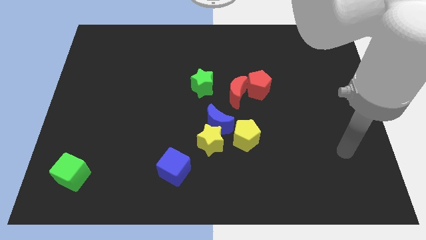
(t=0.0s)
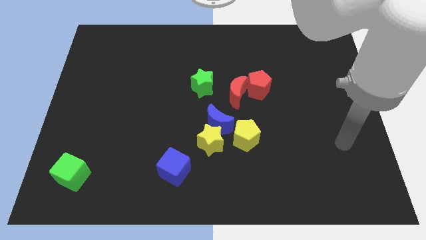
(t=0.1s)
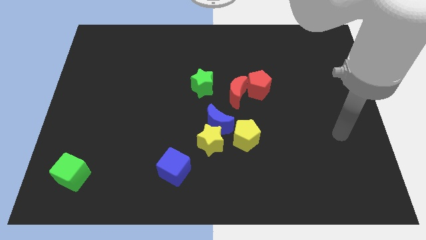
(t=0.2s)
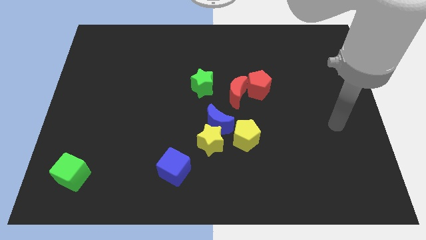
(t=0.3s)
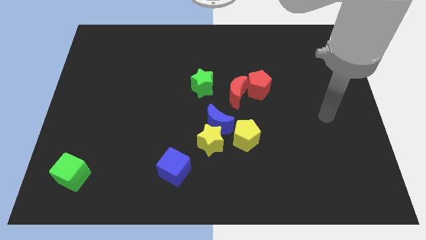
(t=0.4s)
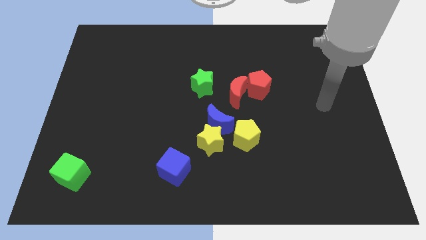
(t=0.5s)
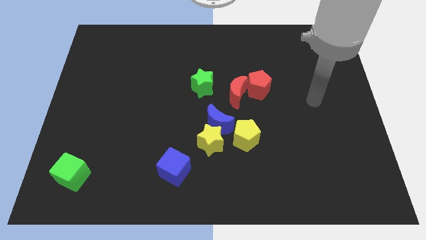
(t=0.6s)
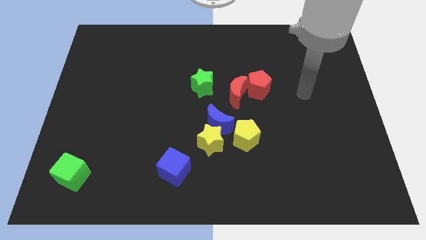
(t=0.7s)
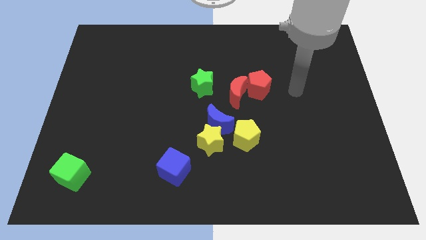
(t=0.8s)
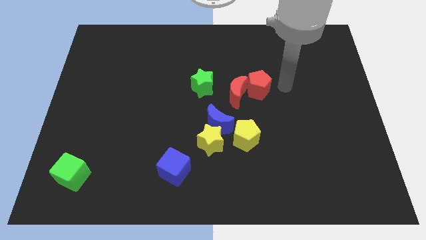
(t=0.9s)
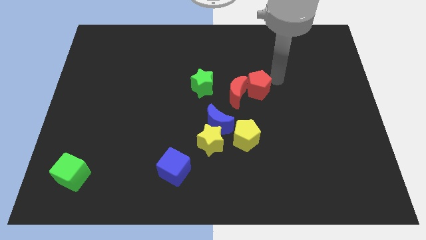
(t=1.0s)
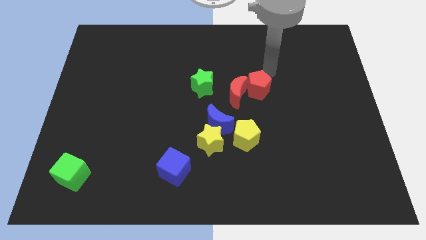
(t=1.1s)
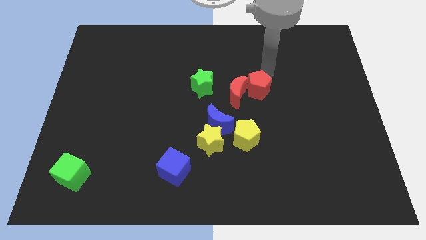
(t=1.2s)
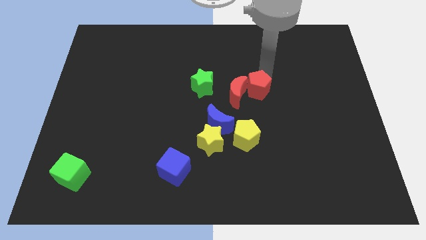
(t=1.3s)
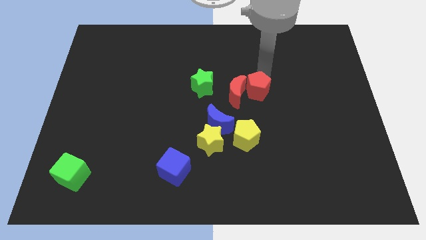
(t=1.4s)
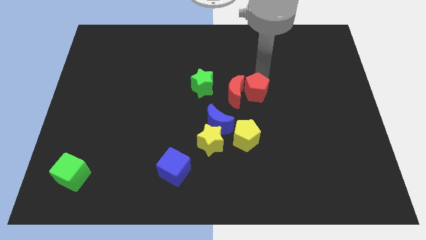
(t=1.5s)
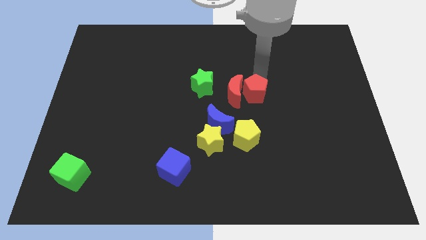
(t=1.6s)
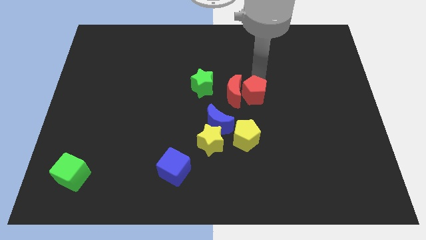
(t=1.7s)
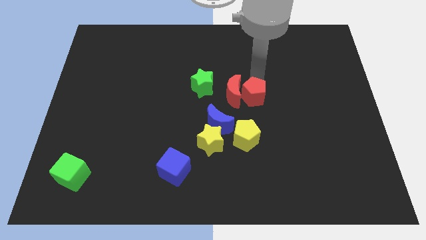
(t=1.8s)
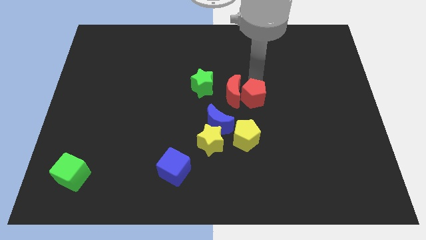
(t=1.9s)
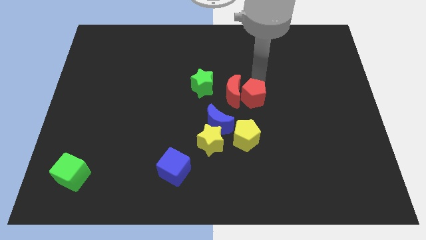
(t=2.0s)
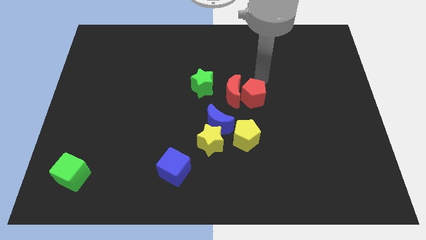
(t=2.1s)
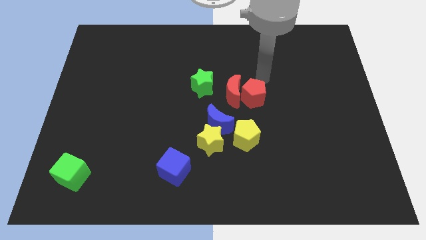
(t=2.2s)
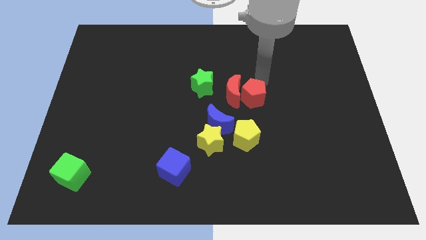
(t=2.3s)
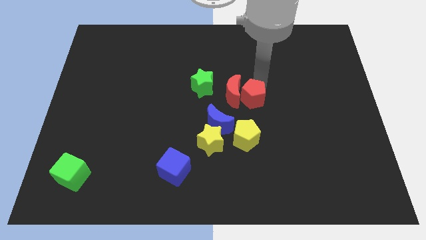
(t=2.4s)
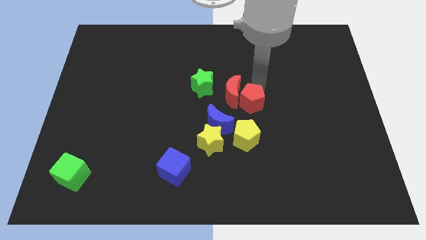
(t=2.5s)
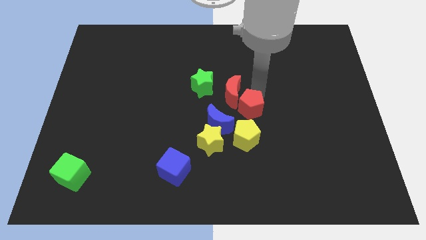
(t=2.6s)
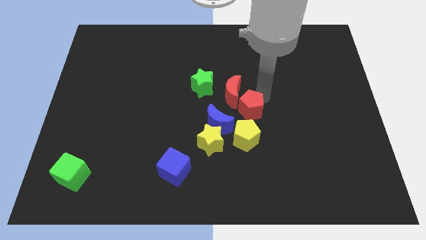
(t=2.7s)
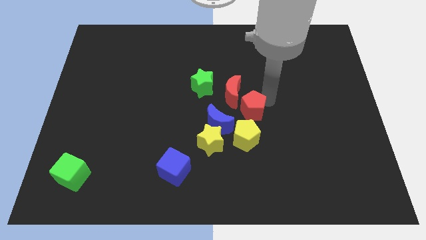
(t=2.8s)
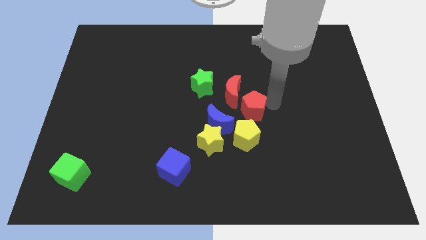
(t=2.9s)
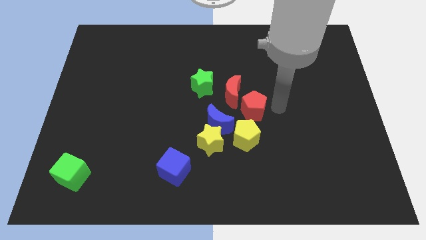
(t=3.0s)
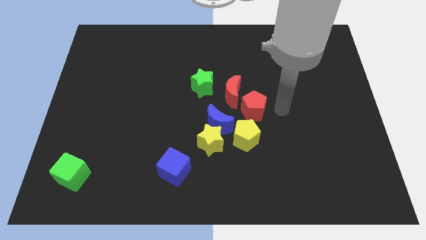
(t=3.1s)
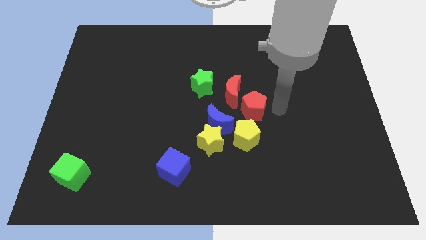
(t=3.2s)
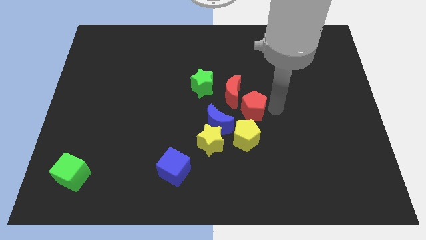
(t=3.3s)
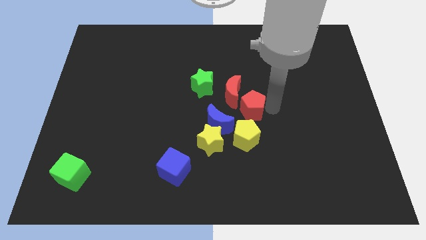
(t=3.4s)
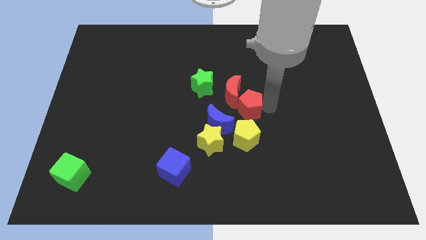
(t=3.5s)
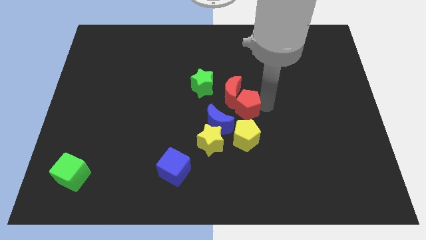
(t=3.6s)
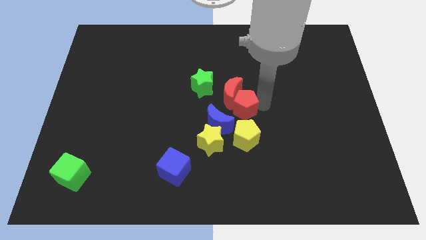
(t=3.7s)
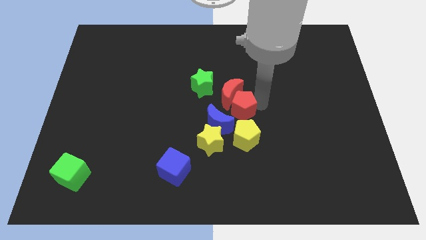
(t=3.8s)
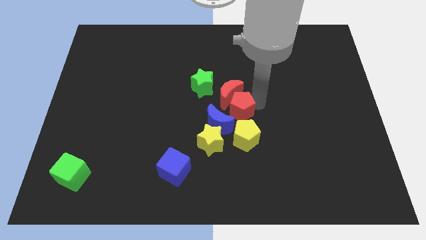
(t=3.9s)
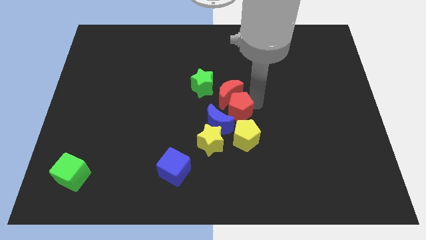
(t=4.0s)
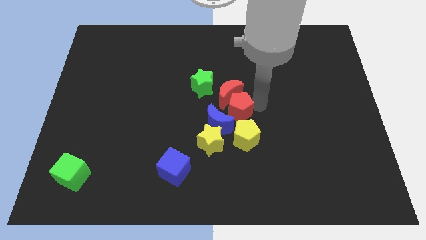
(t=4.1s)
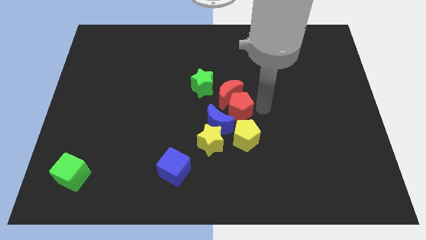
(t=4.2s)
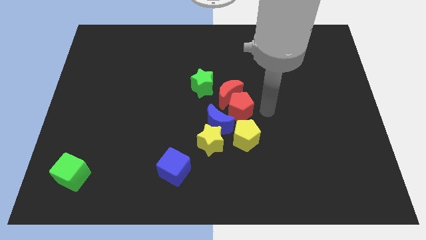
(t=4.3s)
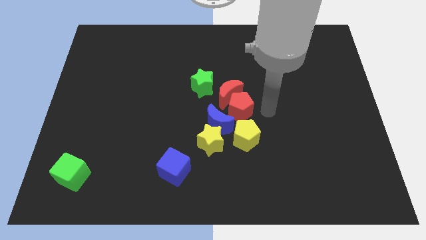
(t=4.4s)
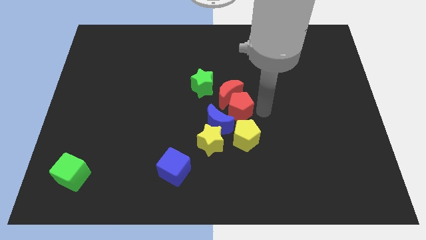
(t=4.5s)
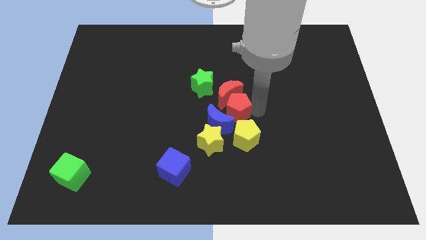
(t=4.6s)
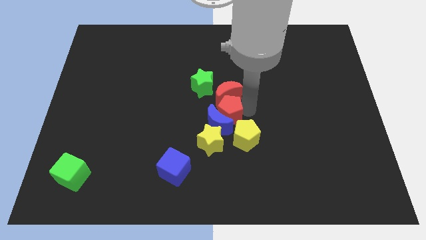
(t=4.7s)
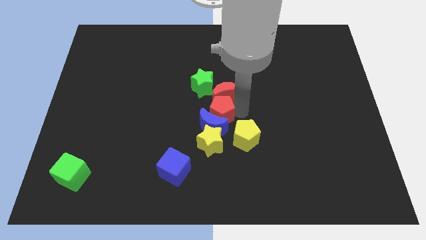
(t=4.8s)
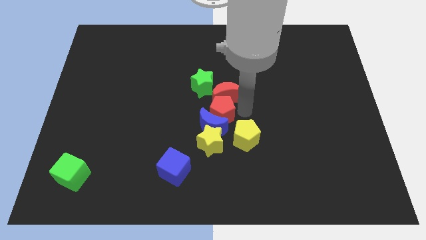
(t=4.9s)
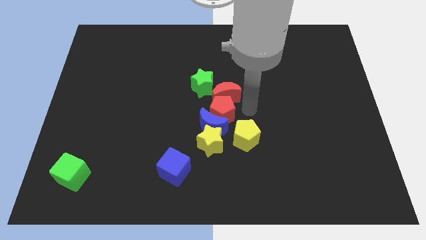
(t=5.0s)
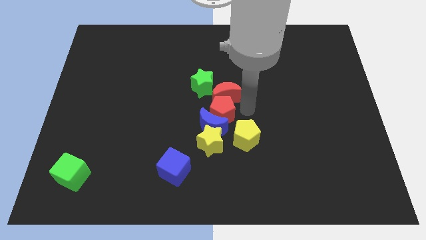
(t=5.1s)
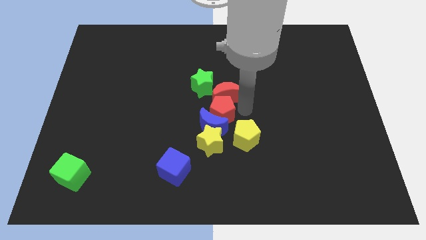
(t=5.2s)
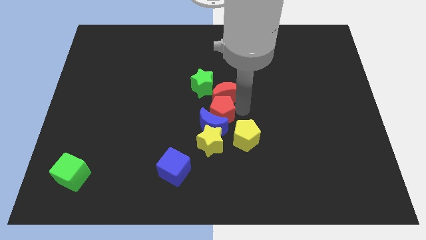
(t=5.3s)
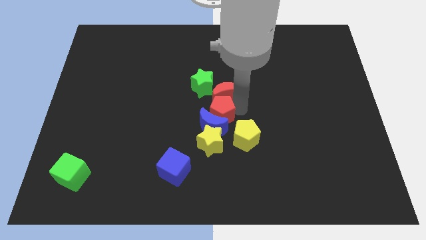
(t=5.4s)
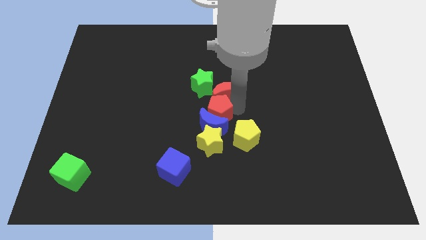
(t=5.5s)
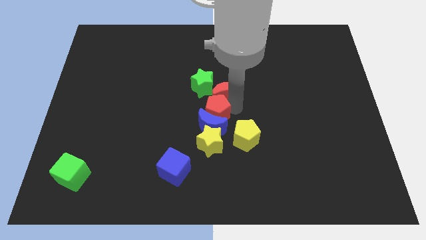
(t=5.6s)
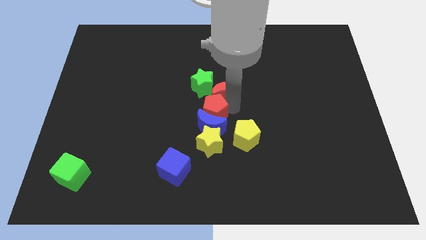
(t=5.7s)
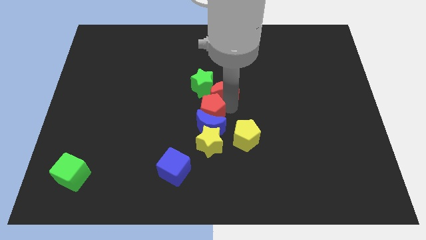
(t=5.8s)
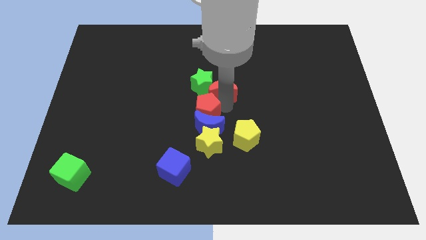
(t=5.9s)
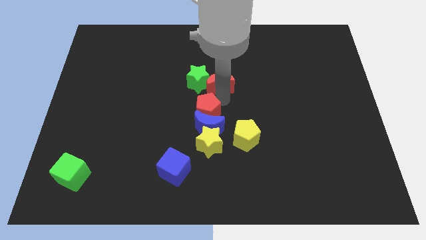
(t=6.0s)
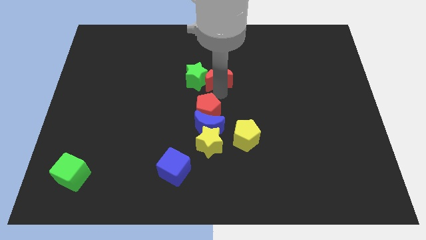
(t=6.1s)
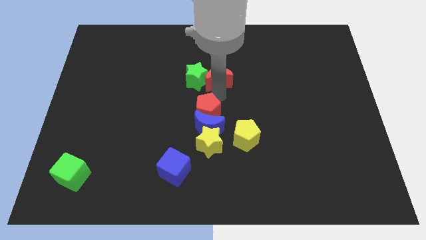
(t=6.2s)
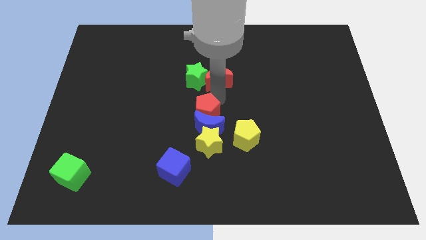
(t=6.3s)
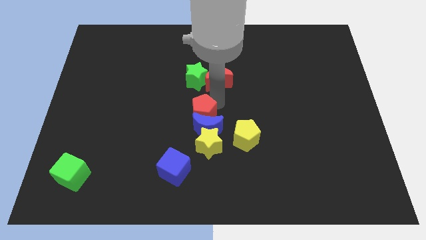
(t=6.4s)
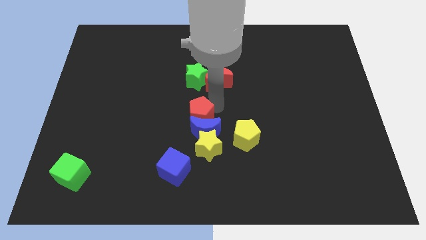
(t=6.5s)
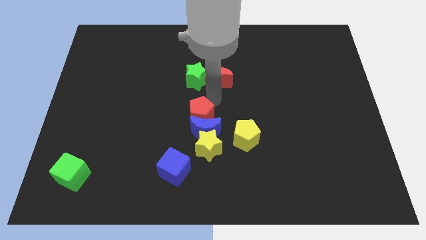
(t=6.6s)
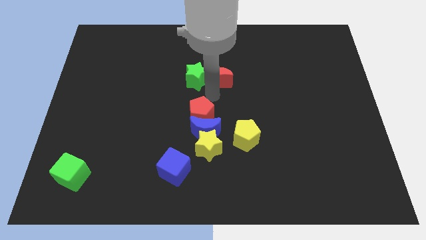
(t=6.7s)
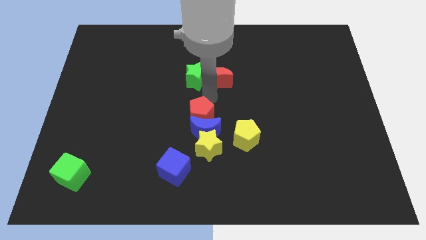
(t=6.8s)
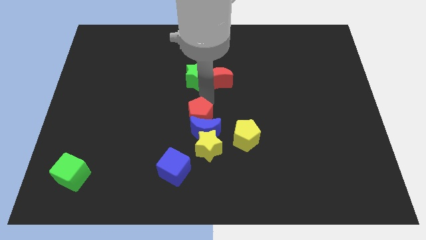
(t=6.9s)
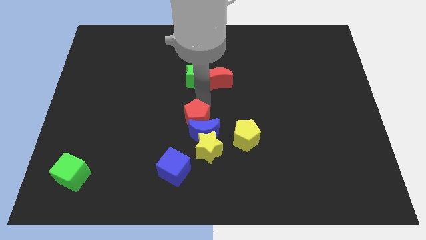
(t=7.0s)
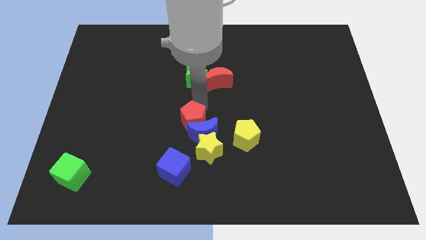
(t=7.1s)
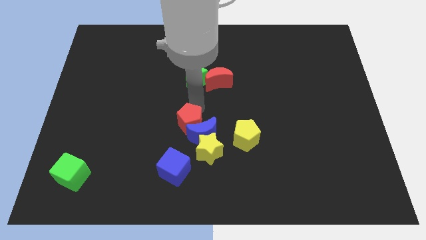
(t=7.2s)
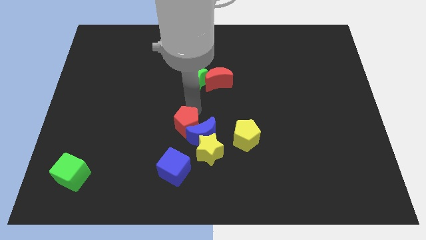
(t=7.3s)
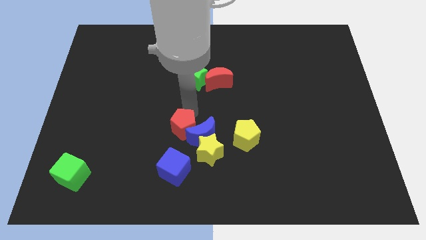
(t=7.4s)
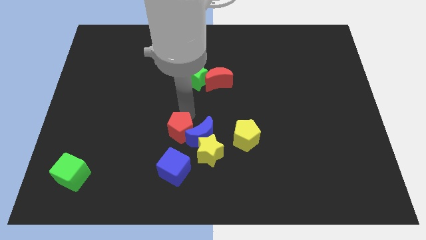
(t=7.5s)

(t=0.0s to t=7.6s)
push the red pentagon diagonally down and to the left of the blue moon
